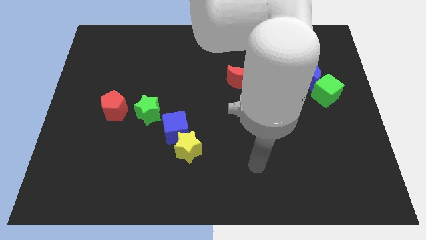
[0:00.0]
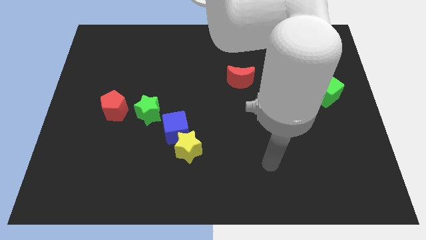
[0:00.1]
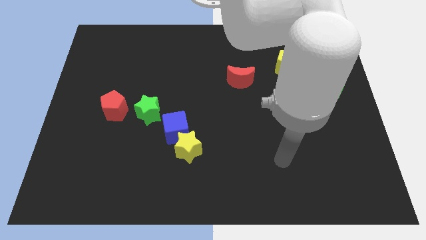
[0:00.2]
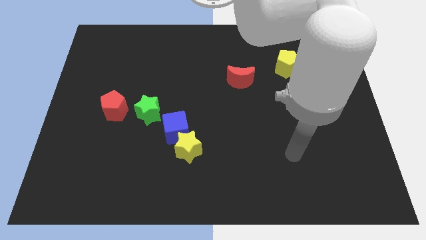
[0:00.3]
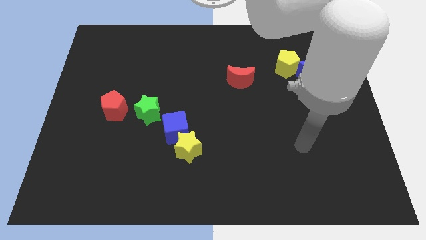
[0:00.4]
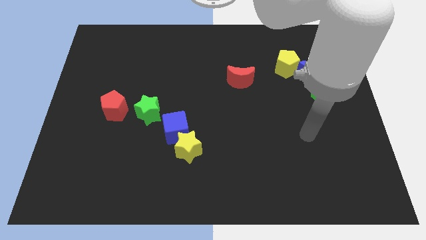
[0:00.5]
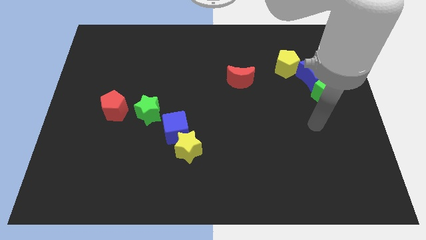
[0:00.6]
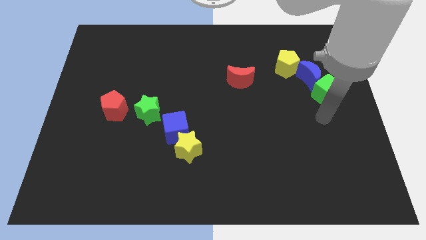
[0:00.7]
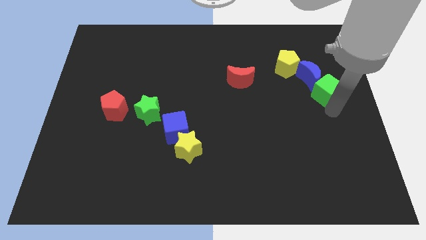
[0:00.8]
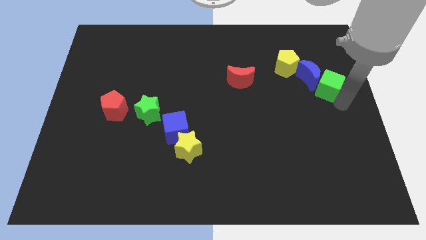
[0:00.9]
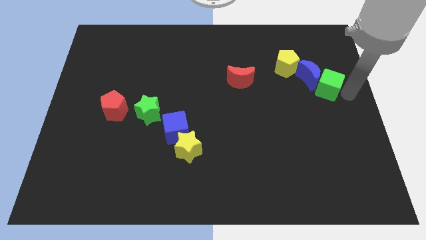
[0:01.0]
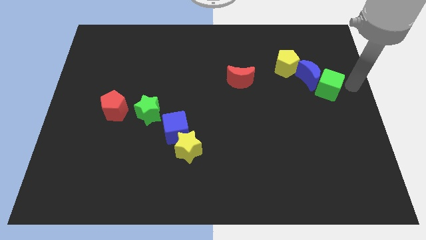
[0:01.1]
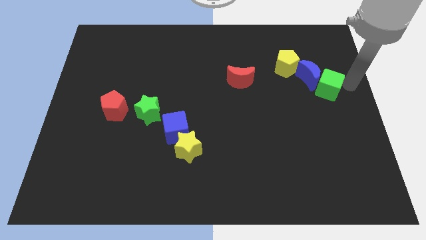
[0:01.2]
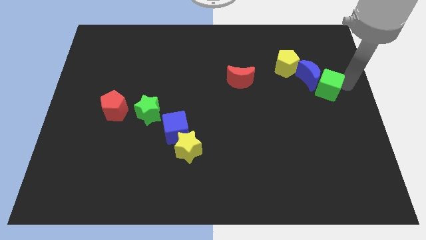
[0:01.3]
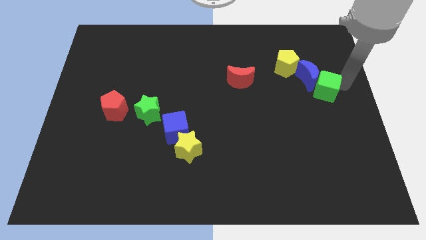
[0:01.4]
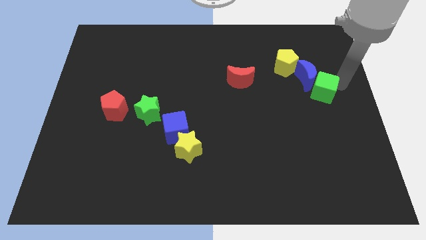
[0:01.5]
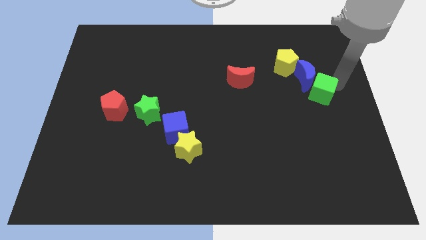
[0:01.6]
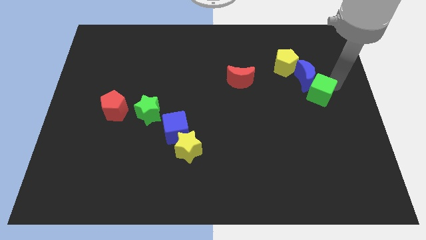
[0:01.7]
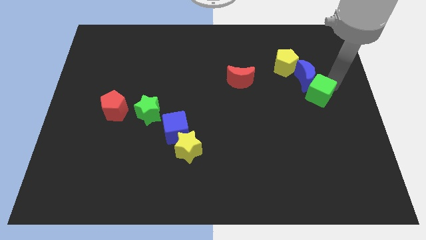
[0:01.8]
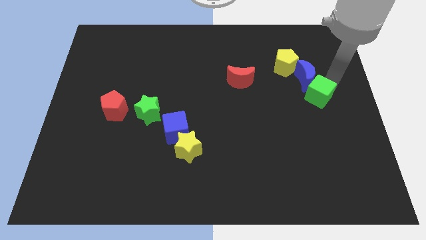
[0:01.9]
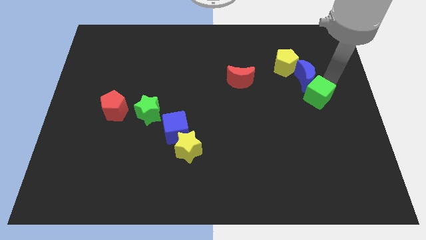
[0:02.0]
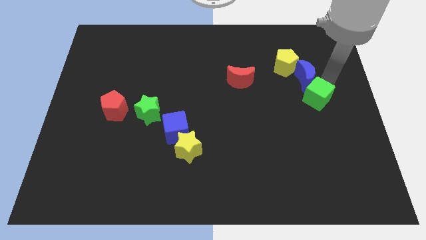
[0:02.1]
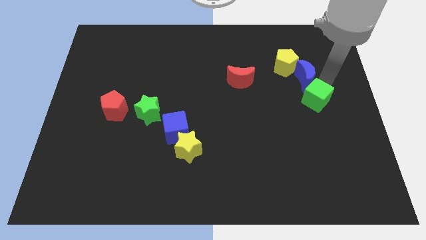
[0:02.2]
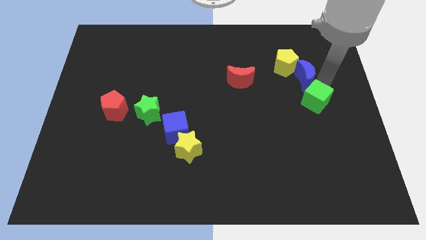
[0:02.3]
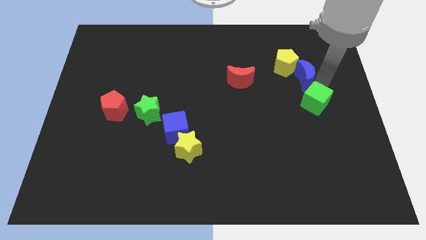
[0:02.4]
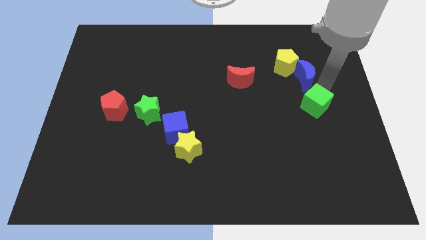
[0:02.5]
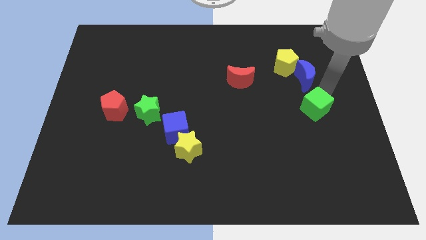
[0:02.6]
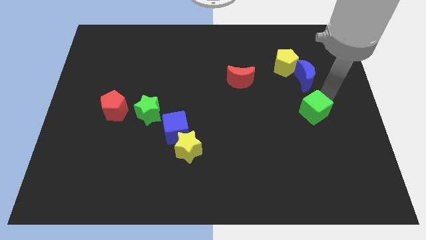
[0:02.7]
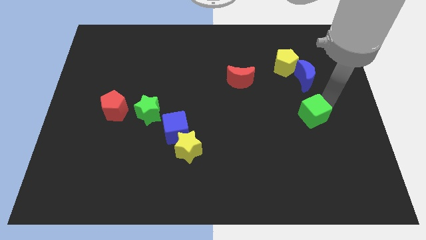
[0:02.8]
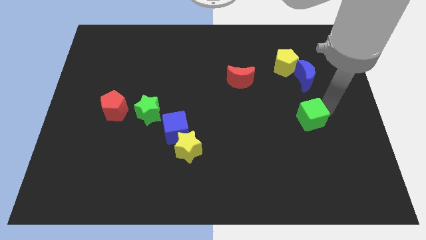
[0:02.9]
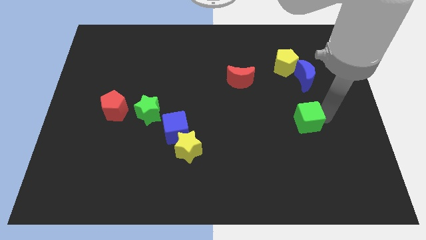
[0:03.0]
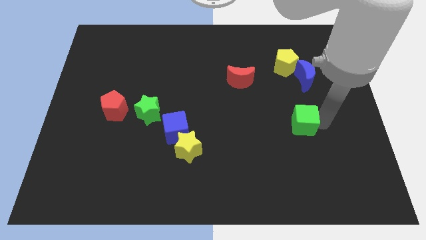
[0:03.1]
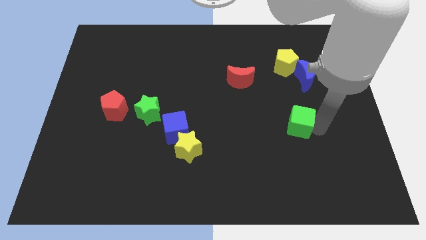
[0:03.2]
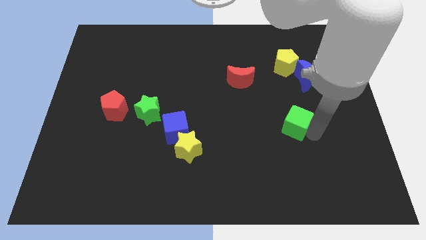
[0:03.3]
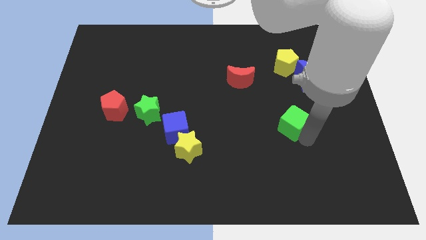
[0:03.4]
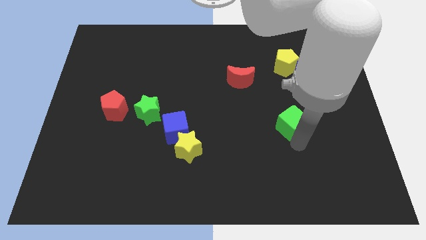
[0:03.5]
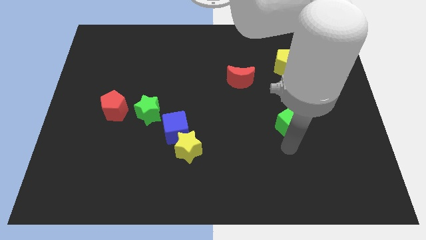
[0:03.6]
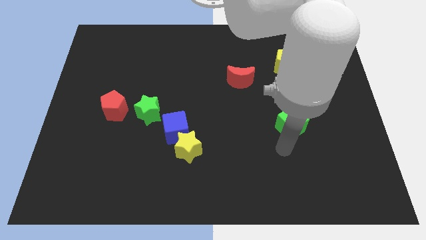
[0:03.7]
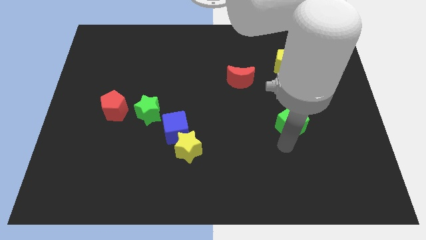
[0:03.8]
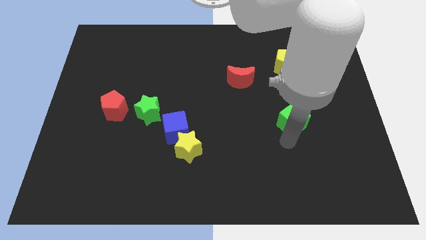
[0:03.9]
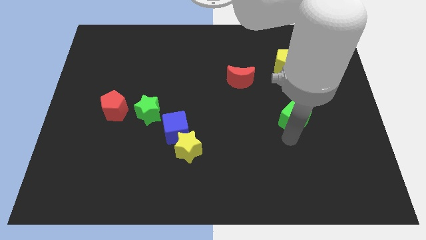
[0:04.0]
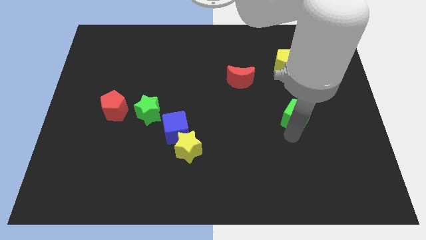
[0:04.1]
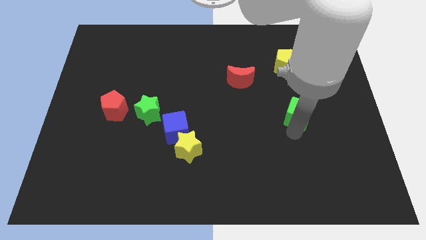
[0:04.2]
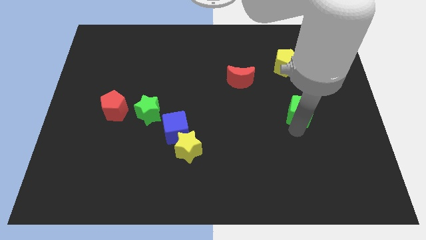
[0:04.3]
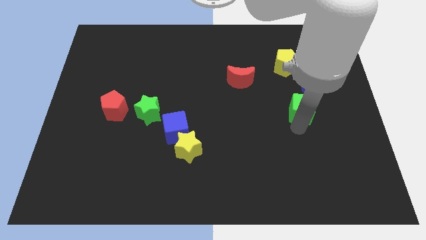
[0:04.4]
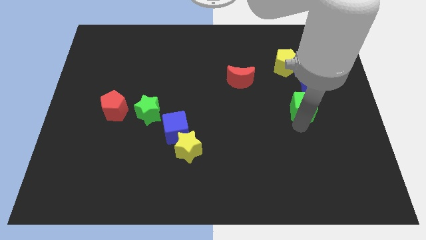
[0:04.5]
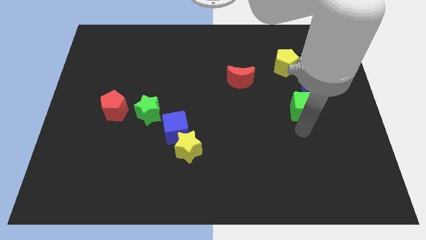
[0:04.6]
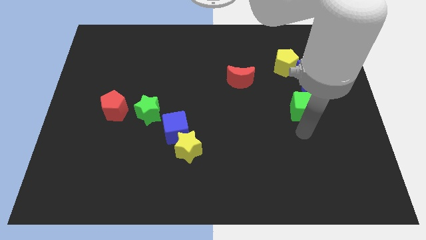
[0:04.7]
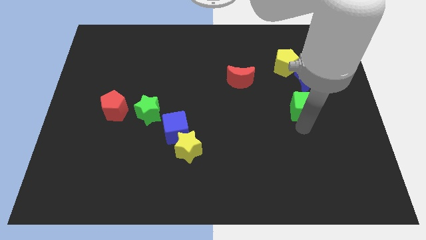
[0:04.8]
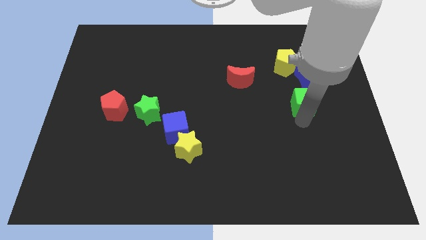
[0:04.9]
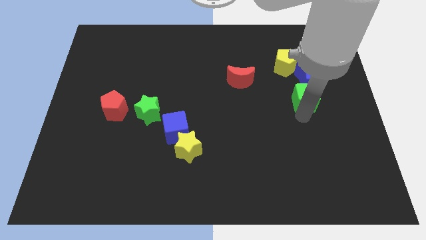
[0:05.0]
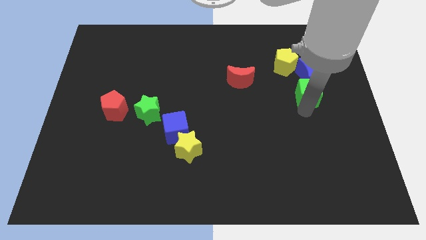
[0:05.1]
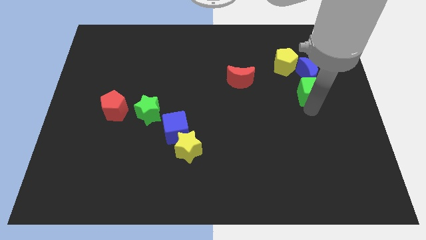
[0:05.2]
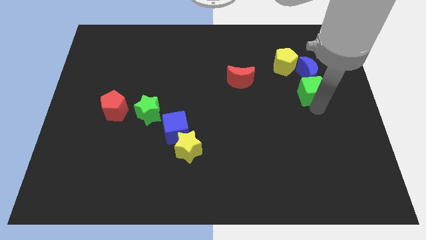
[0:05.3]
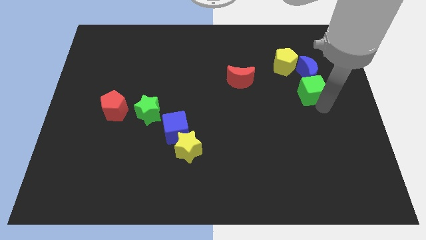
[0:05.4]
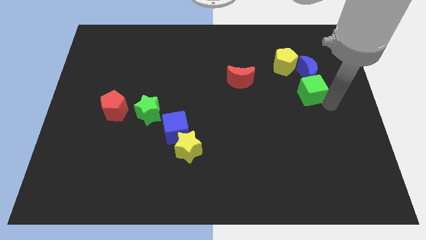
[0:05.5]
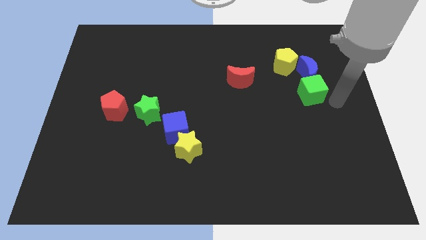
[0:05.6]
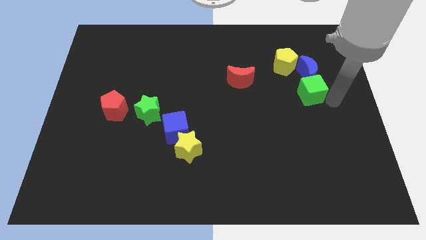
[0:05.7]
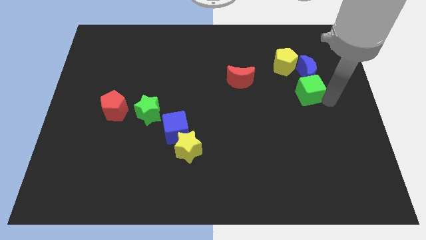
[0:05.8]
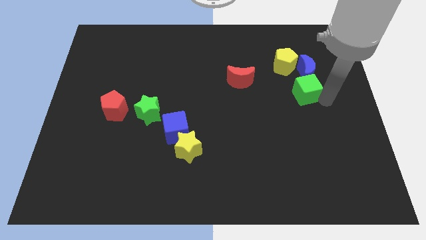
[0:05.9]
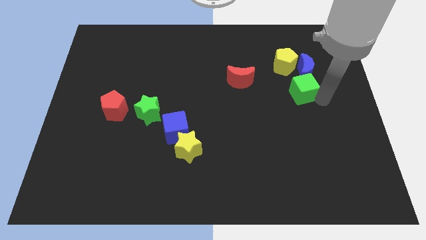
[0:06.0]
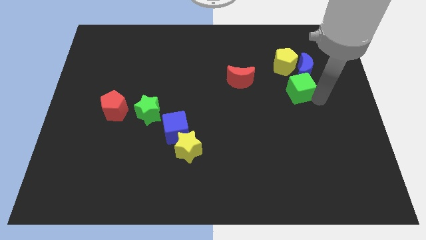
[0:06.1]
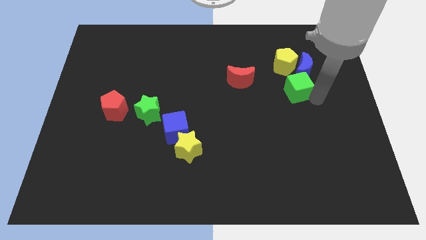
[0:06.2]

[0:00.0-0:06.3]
slightly push the green cube left

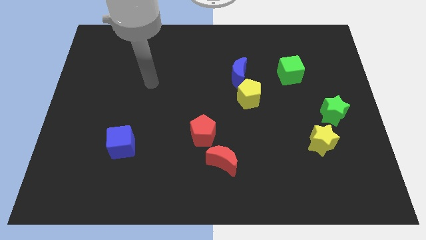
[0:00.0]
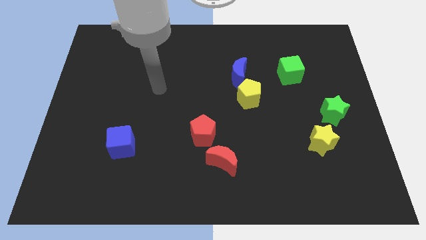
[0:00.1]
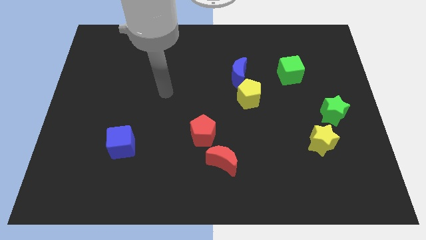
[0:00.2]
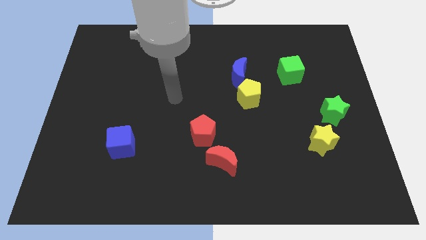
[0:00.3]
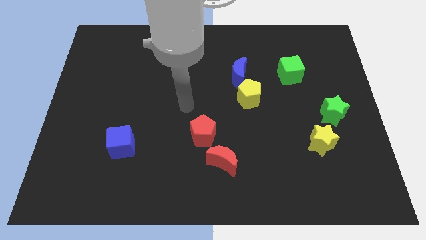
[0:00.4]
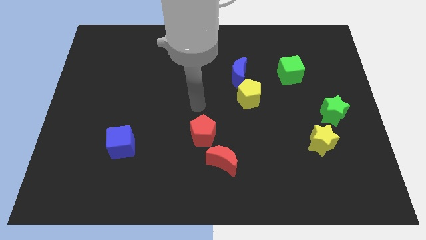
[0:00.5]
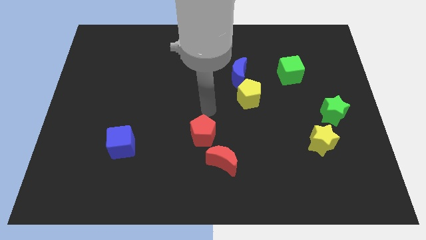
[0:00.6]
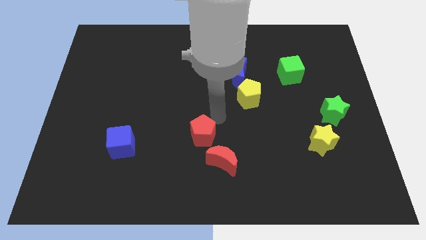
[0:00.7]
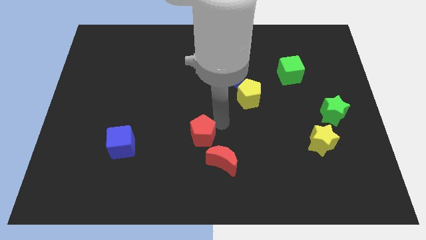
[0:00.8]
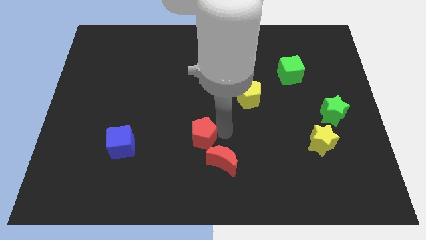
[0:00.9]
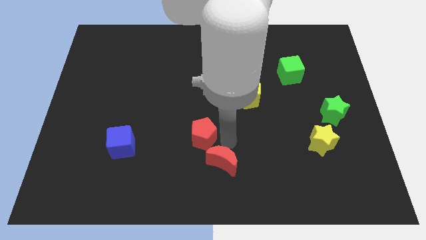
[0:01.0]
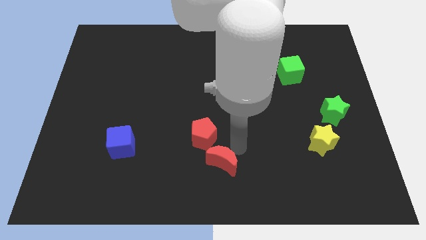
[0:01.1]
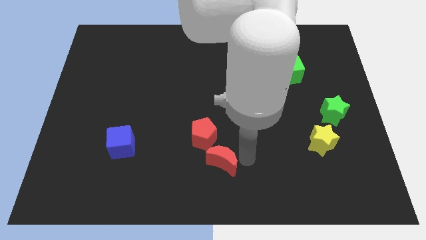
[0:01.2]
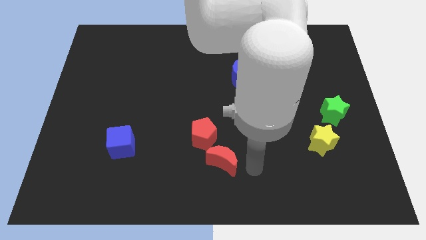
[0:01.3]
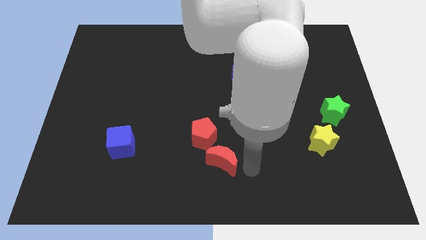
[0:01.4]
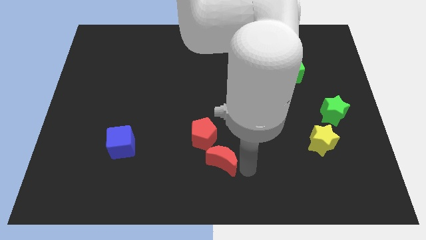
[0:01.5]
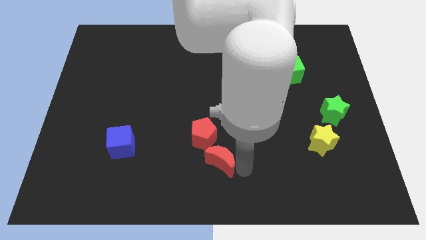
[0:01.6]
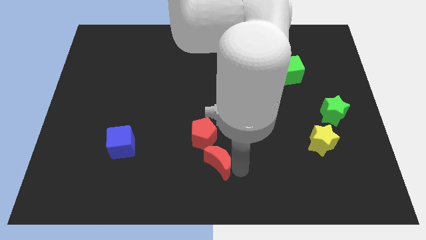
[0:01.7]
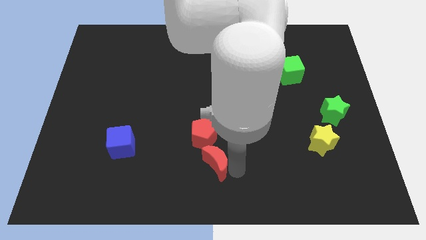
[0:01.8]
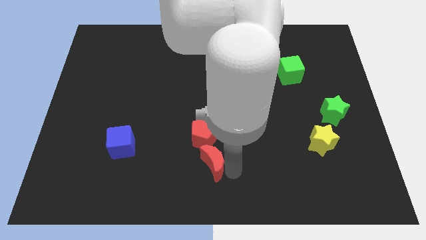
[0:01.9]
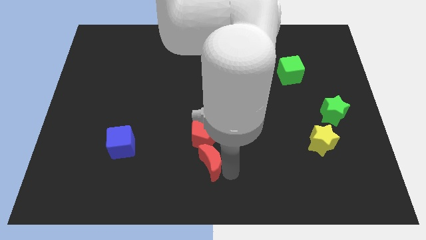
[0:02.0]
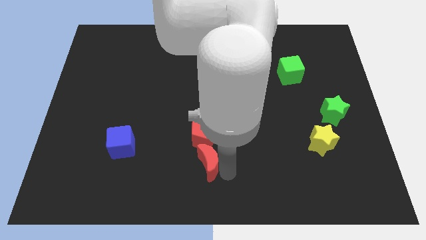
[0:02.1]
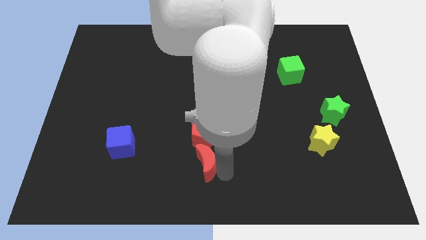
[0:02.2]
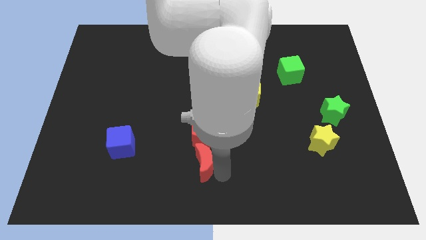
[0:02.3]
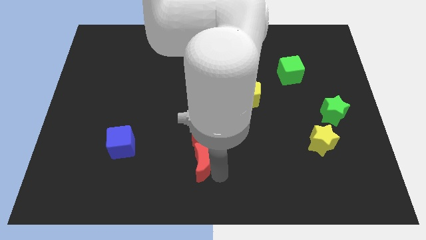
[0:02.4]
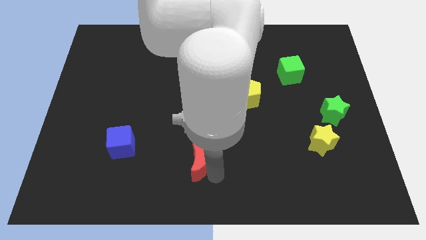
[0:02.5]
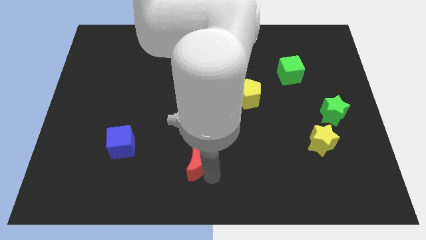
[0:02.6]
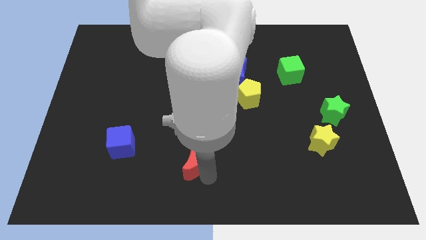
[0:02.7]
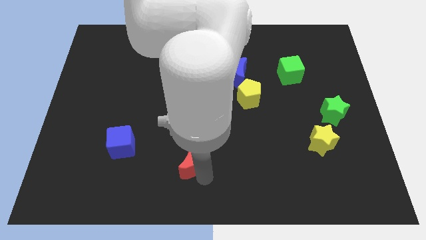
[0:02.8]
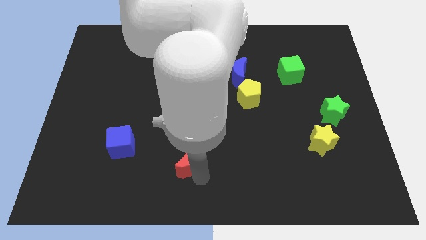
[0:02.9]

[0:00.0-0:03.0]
slide the red moon a little to the left
